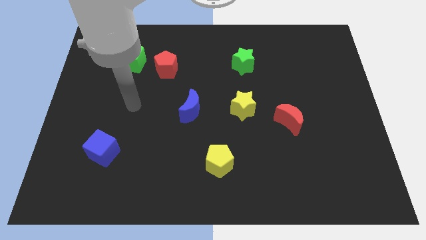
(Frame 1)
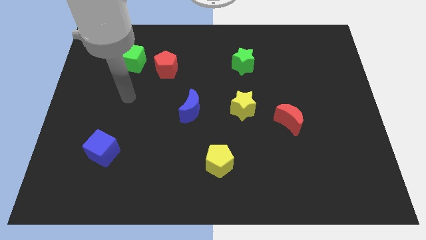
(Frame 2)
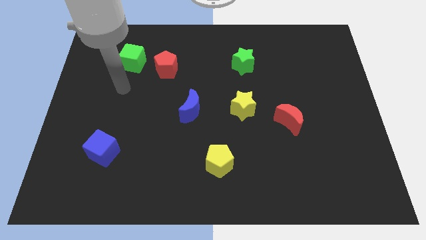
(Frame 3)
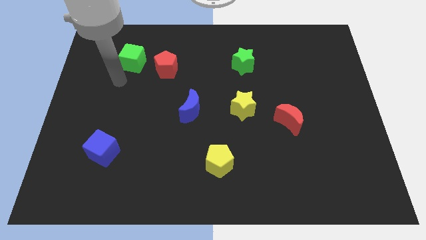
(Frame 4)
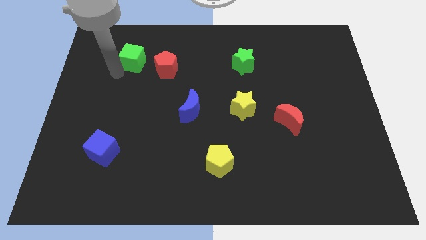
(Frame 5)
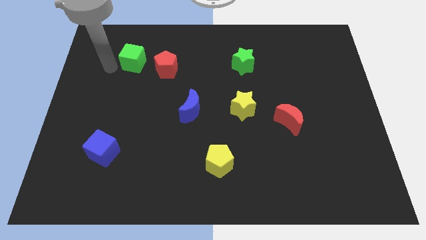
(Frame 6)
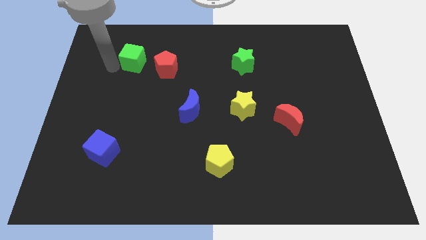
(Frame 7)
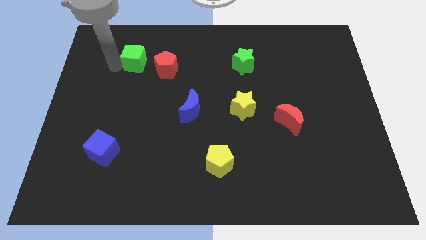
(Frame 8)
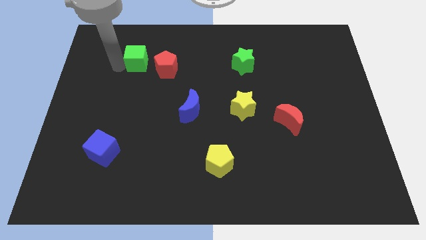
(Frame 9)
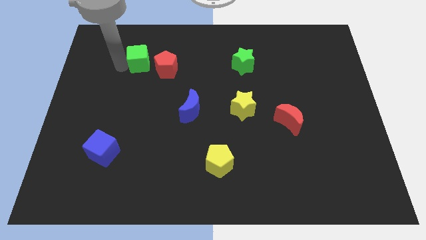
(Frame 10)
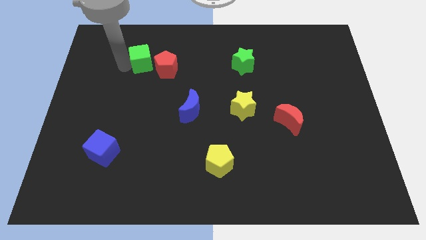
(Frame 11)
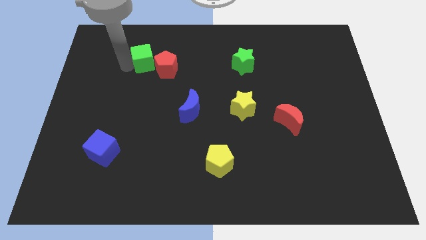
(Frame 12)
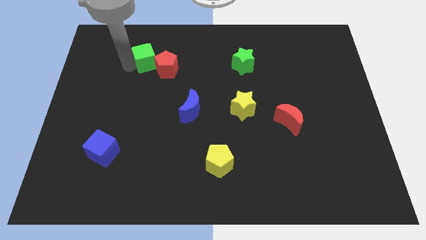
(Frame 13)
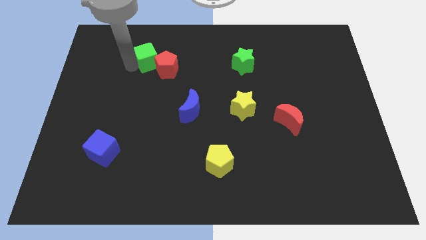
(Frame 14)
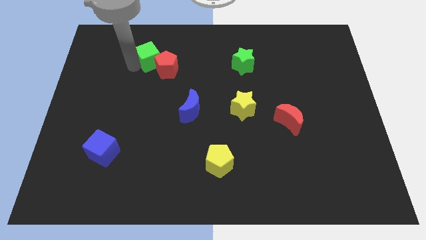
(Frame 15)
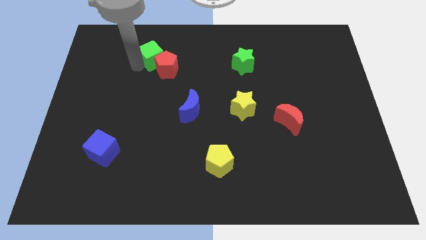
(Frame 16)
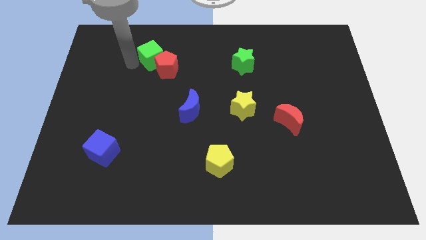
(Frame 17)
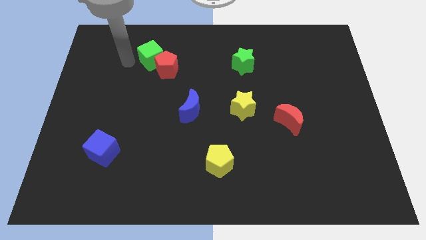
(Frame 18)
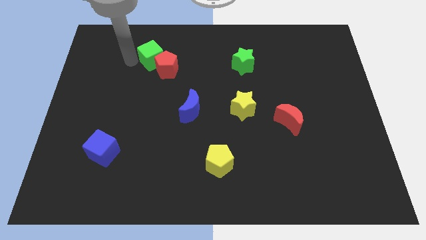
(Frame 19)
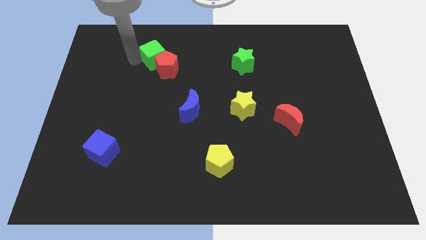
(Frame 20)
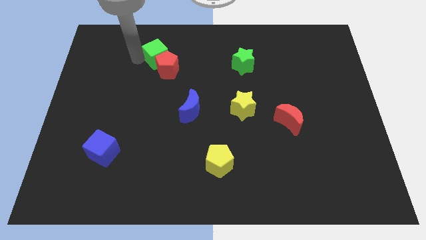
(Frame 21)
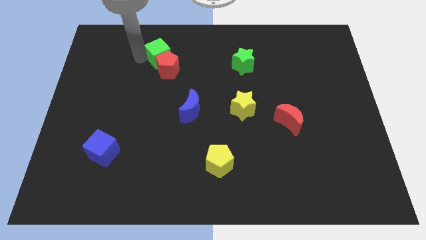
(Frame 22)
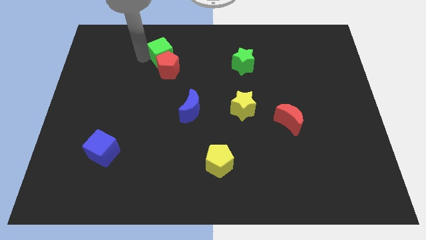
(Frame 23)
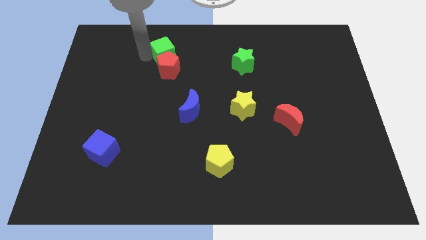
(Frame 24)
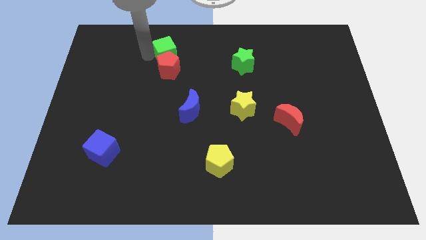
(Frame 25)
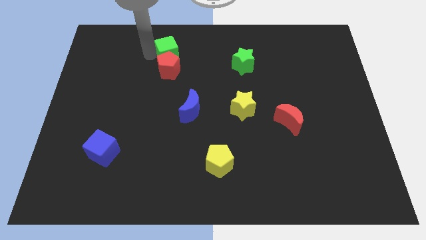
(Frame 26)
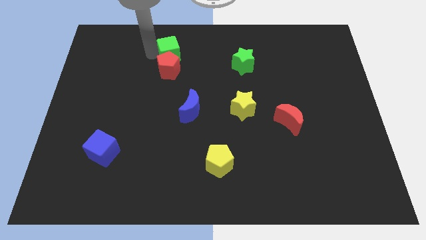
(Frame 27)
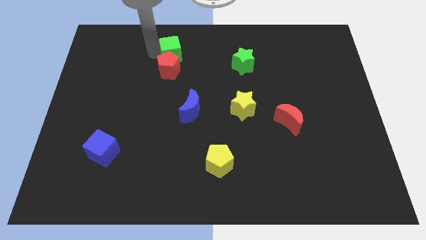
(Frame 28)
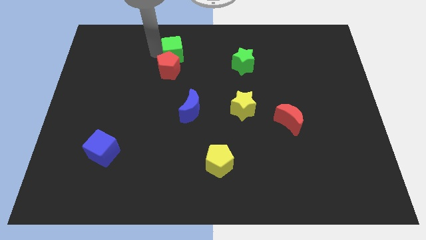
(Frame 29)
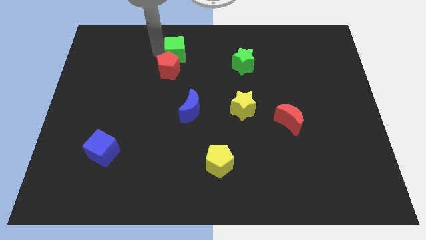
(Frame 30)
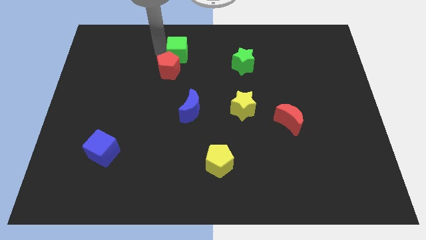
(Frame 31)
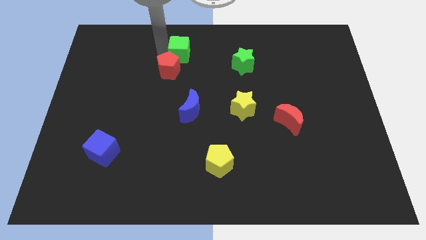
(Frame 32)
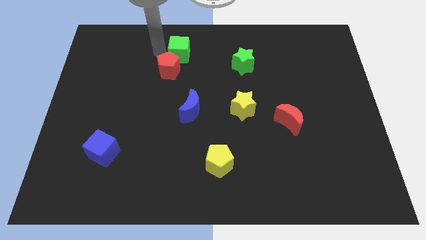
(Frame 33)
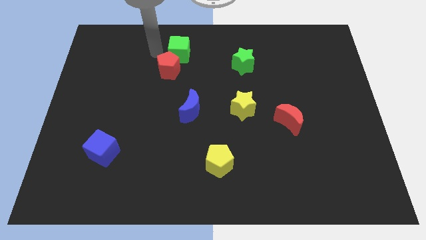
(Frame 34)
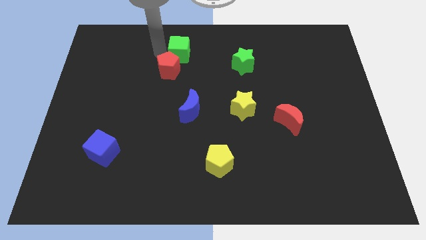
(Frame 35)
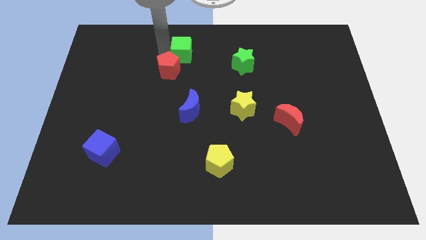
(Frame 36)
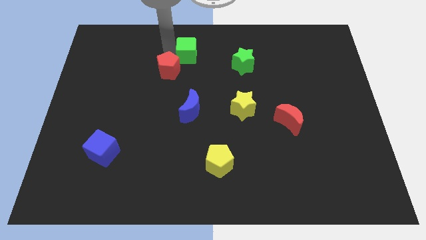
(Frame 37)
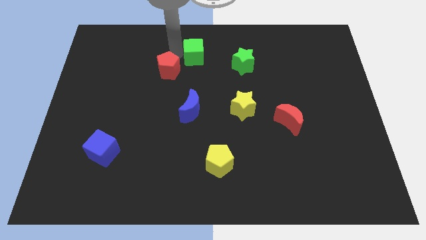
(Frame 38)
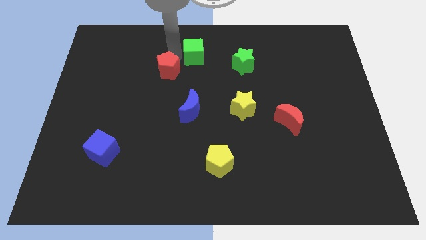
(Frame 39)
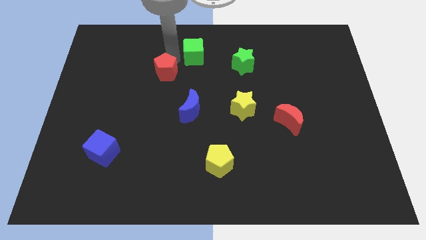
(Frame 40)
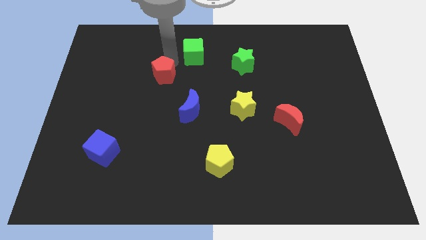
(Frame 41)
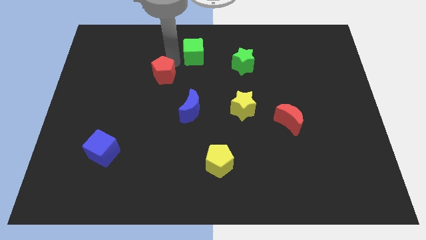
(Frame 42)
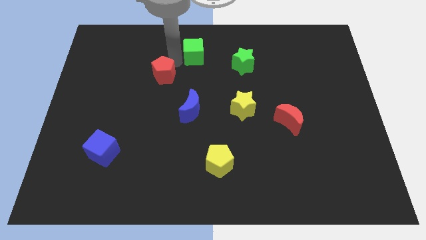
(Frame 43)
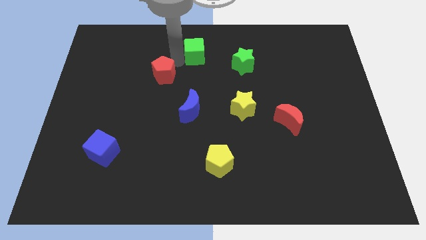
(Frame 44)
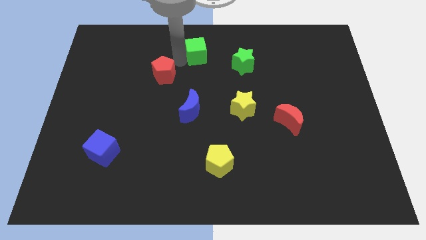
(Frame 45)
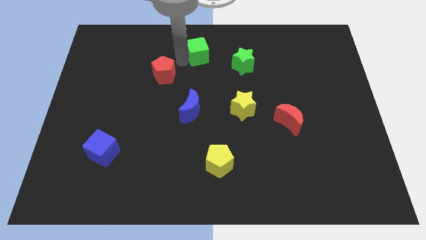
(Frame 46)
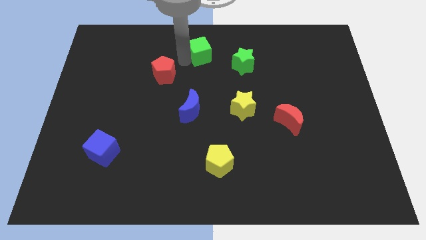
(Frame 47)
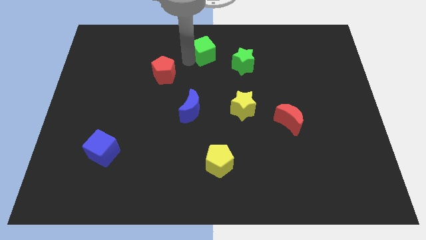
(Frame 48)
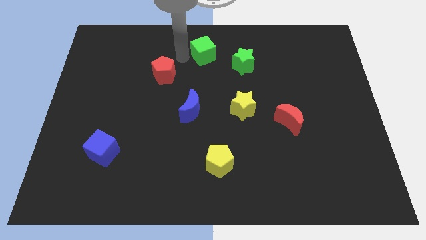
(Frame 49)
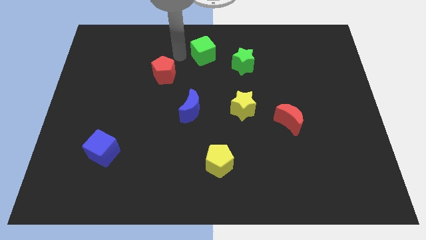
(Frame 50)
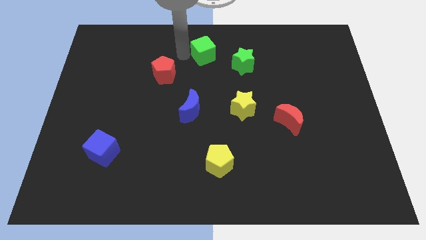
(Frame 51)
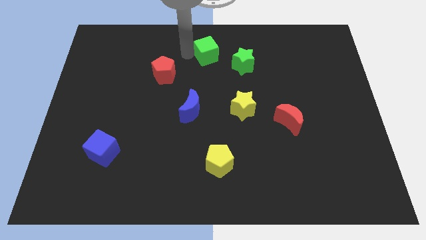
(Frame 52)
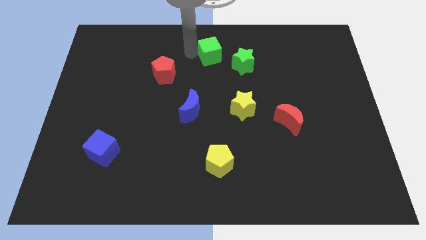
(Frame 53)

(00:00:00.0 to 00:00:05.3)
move the green cube to the right

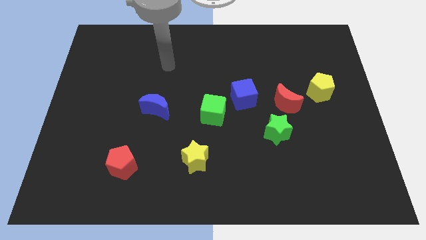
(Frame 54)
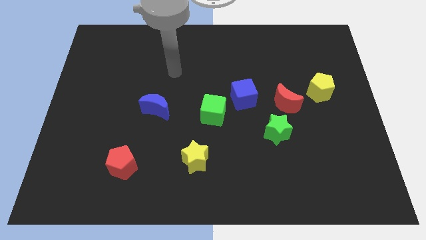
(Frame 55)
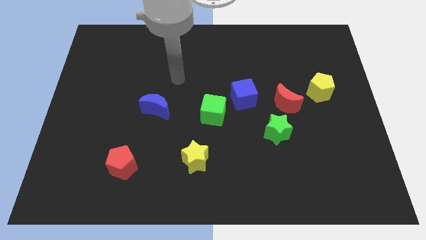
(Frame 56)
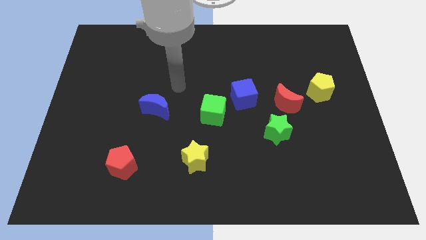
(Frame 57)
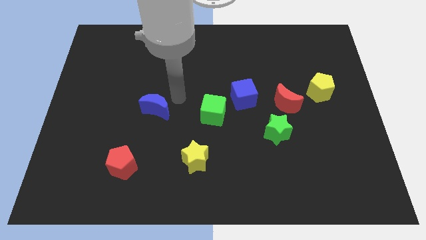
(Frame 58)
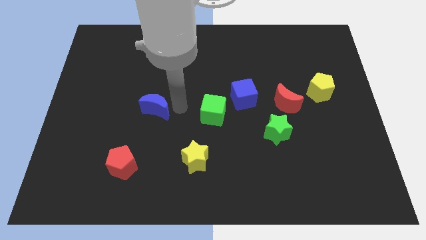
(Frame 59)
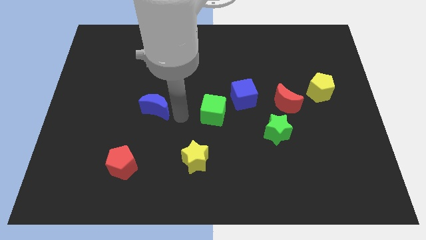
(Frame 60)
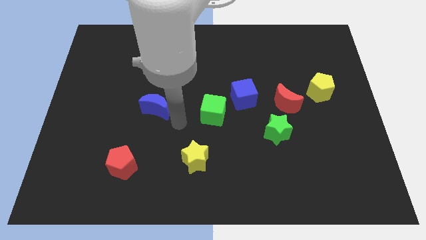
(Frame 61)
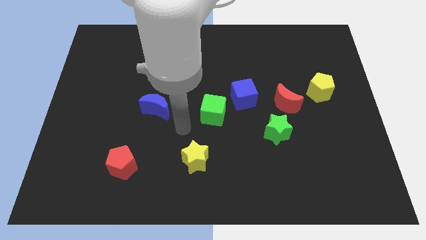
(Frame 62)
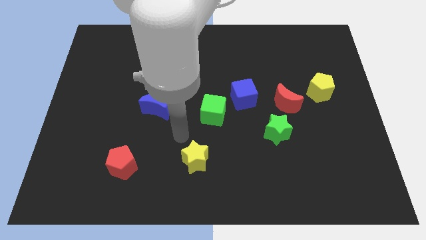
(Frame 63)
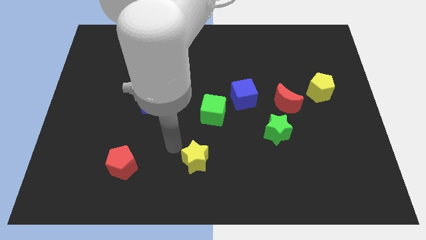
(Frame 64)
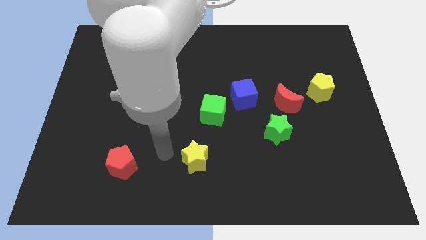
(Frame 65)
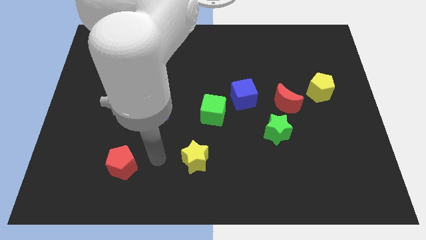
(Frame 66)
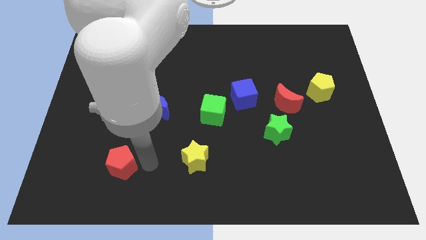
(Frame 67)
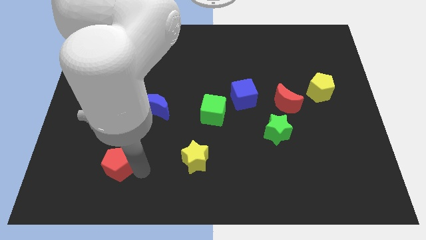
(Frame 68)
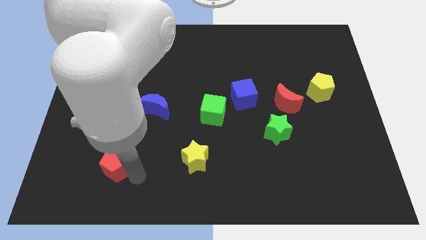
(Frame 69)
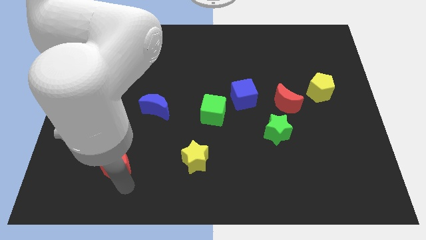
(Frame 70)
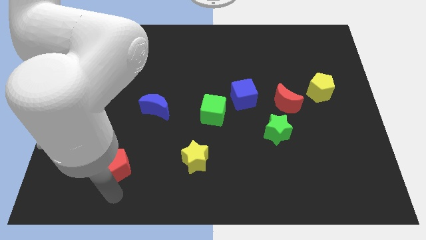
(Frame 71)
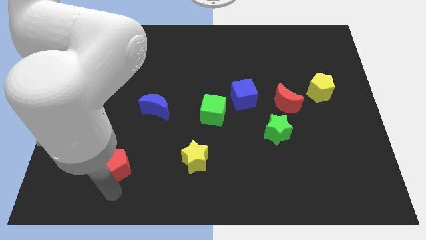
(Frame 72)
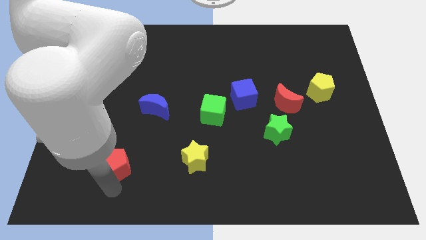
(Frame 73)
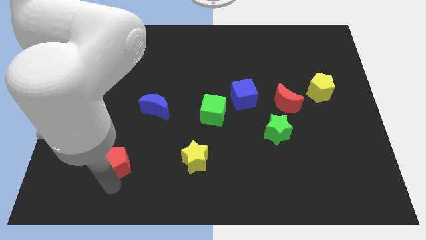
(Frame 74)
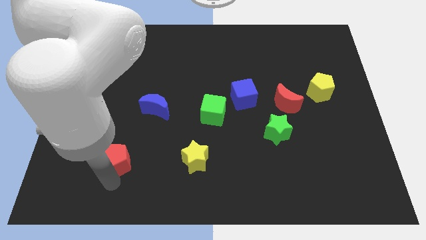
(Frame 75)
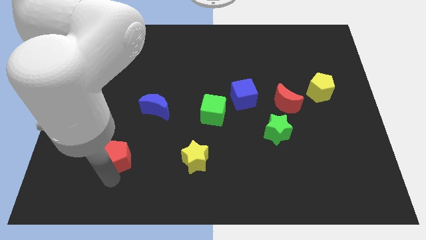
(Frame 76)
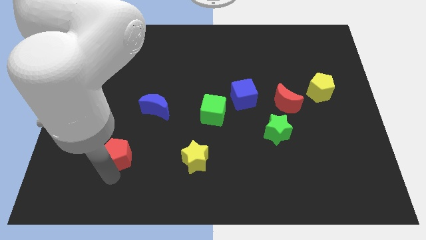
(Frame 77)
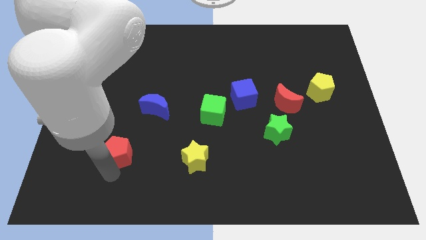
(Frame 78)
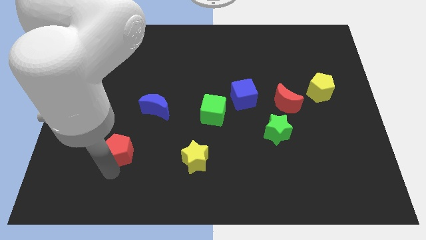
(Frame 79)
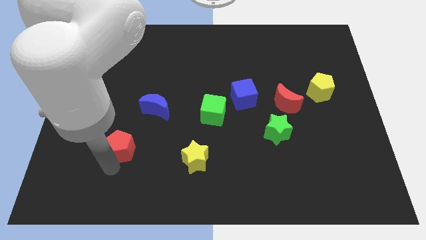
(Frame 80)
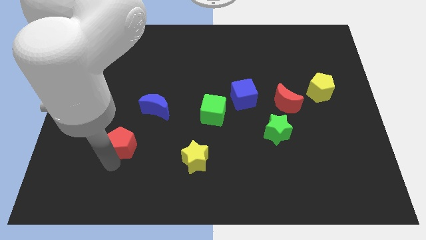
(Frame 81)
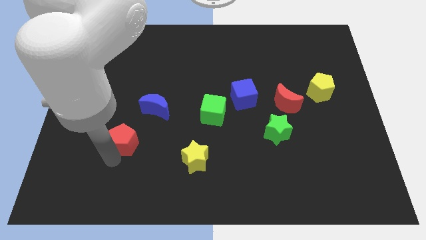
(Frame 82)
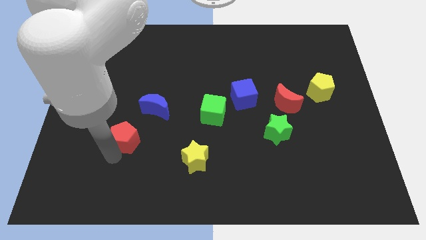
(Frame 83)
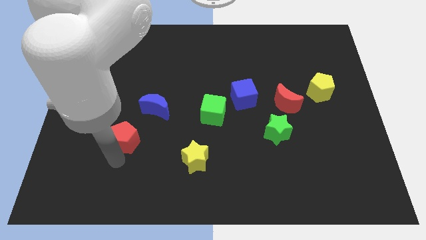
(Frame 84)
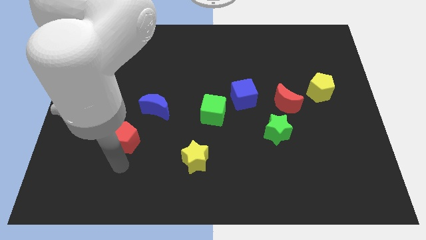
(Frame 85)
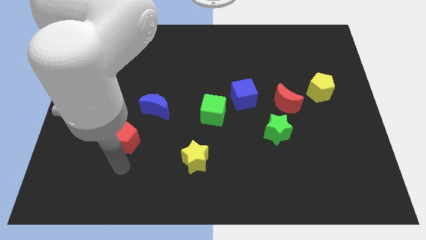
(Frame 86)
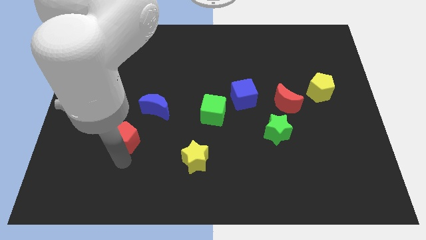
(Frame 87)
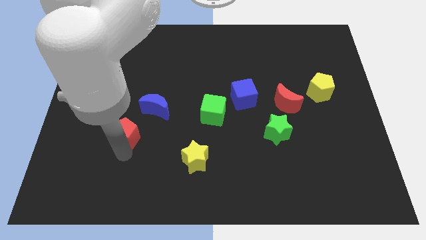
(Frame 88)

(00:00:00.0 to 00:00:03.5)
slide the red pentagon a bit up
